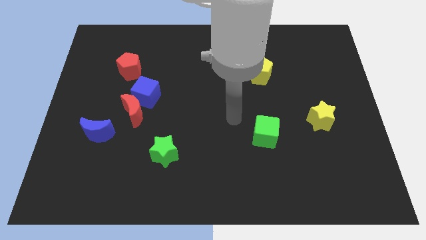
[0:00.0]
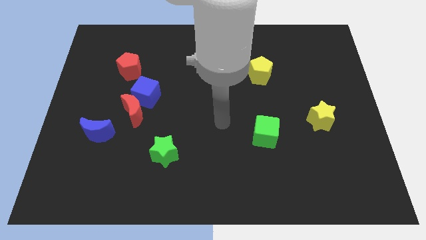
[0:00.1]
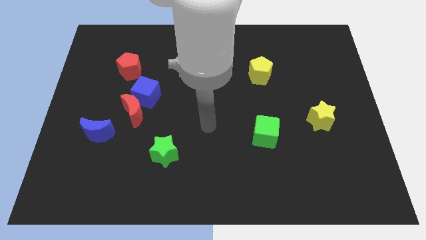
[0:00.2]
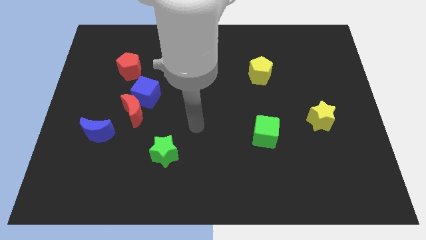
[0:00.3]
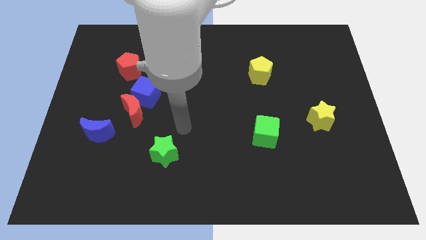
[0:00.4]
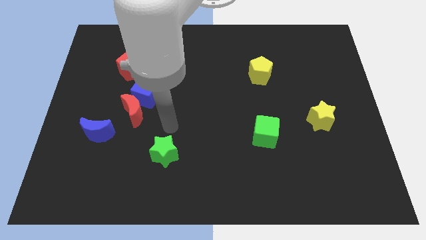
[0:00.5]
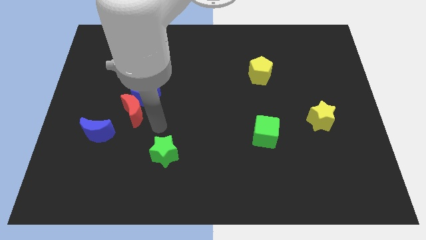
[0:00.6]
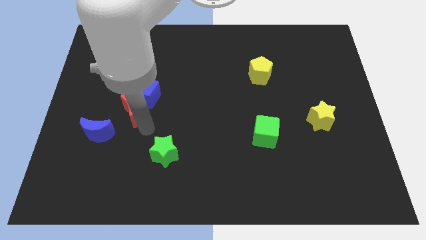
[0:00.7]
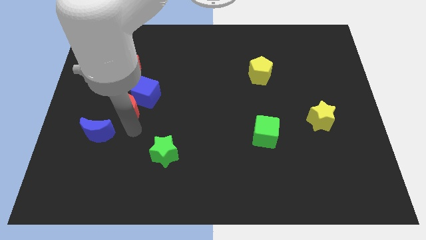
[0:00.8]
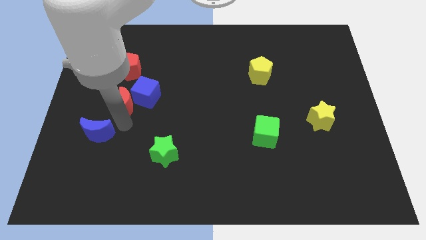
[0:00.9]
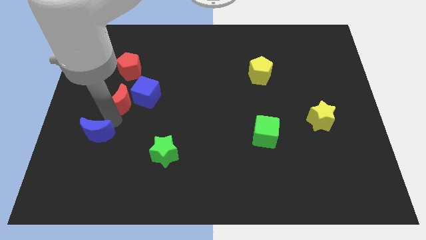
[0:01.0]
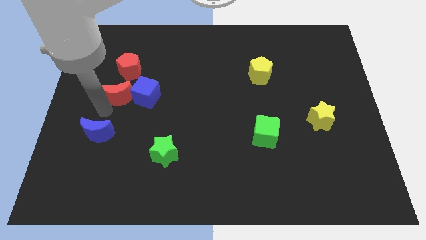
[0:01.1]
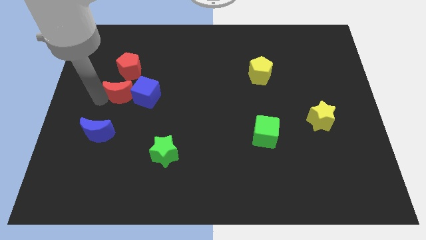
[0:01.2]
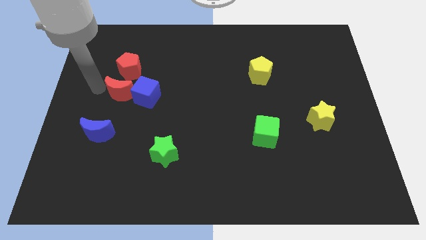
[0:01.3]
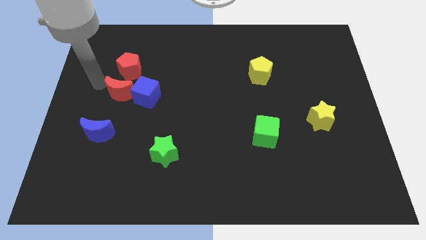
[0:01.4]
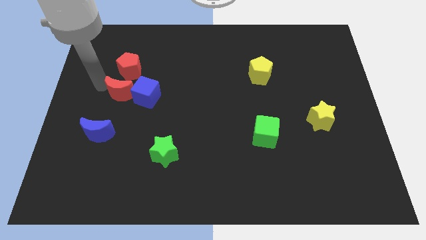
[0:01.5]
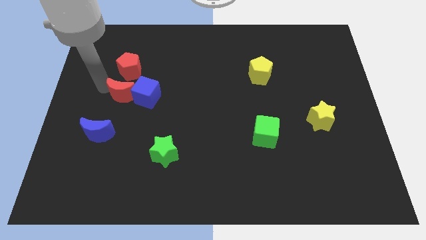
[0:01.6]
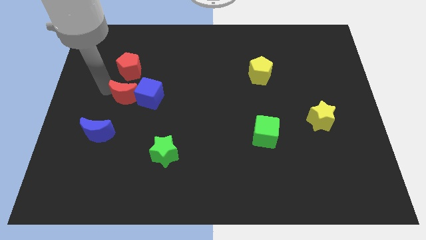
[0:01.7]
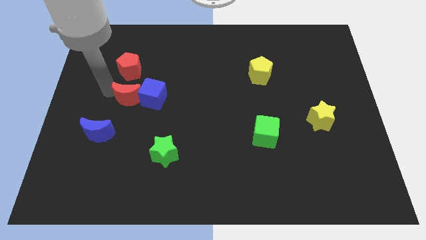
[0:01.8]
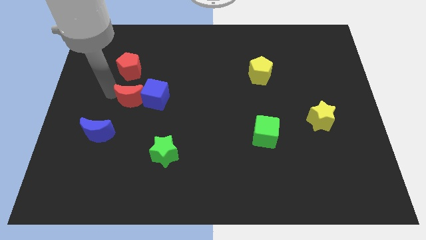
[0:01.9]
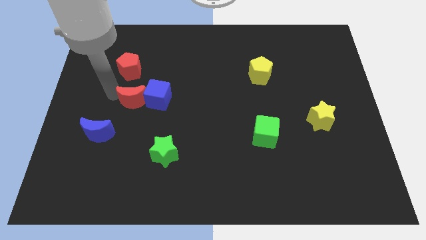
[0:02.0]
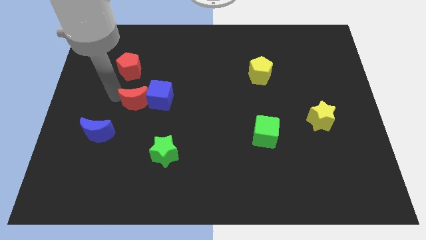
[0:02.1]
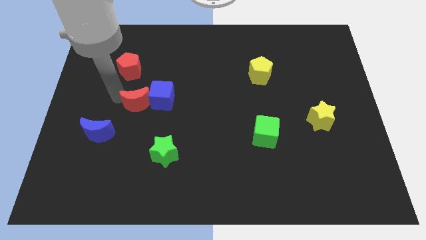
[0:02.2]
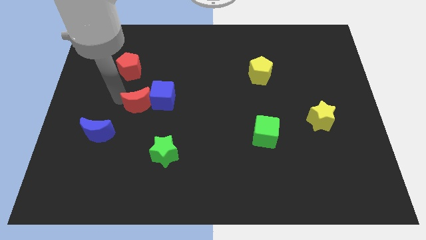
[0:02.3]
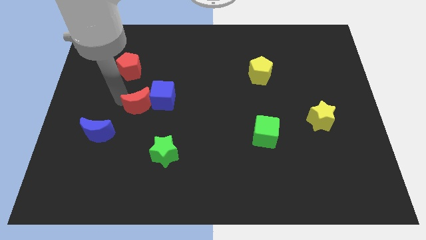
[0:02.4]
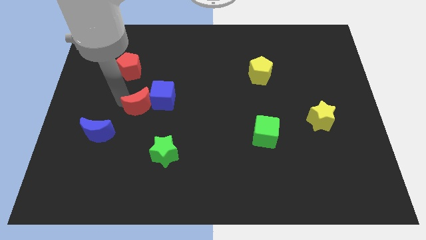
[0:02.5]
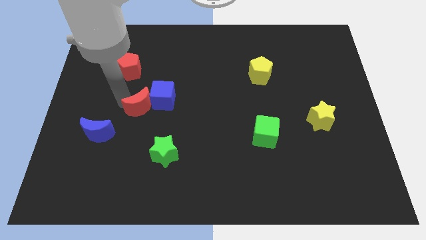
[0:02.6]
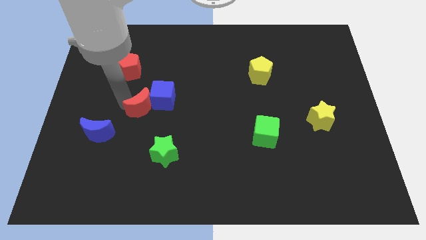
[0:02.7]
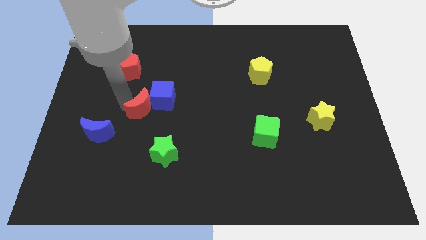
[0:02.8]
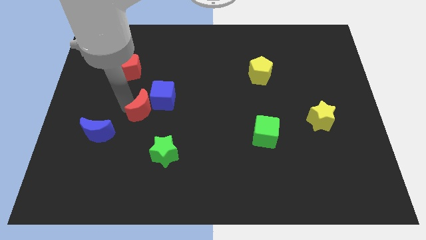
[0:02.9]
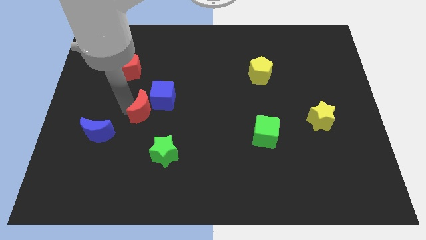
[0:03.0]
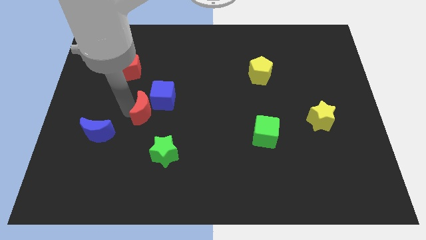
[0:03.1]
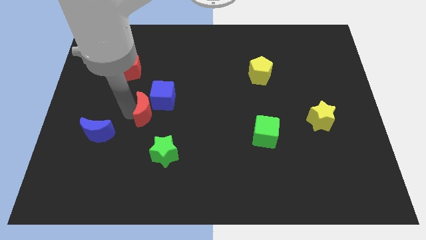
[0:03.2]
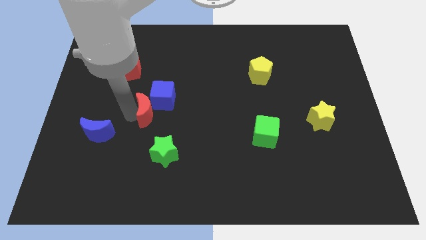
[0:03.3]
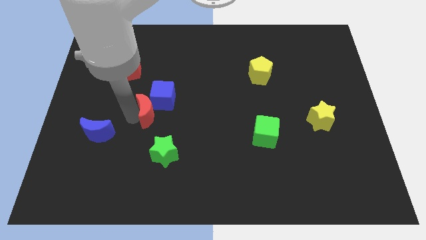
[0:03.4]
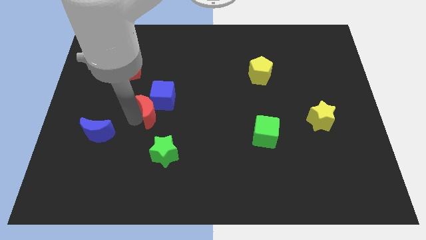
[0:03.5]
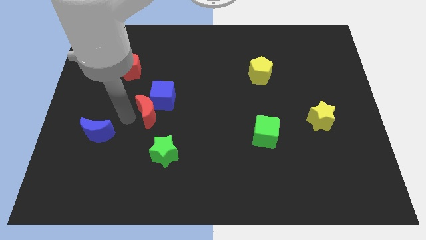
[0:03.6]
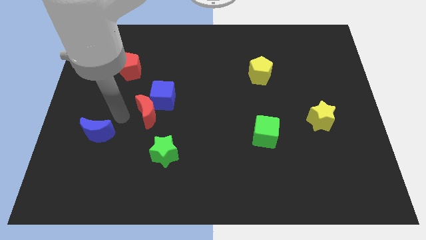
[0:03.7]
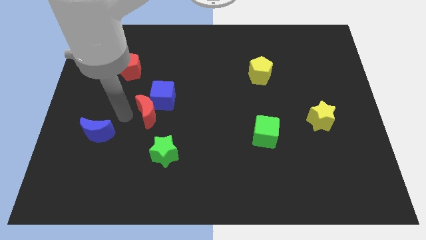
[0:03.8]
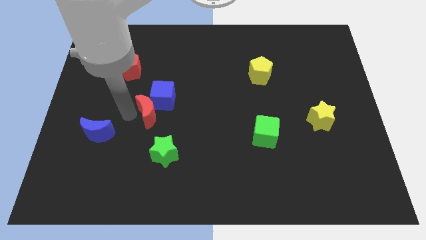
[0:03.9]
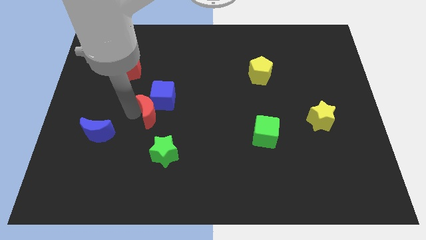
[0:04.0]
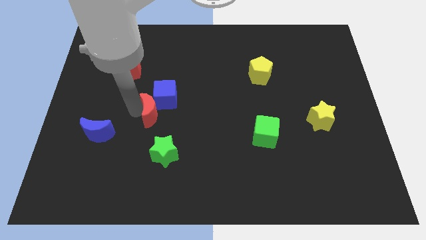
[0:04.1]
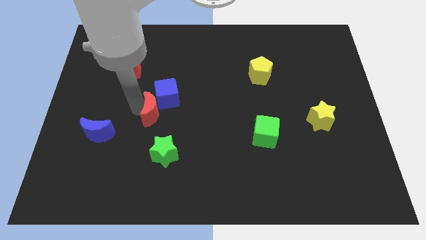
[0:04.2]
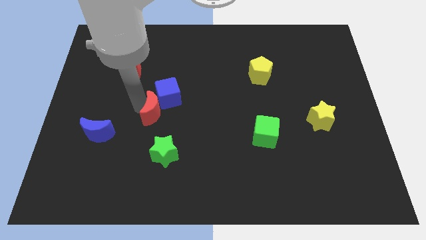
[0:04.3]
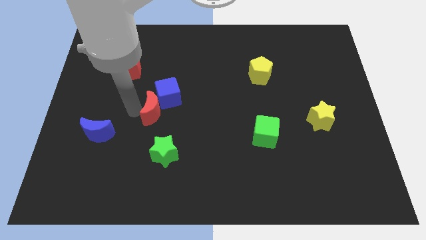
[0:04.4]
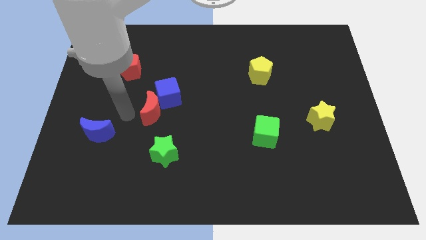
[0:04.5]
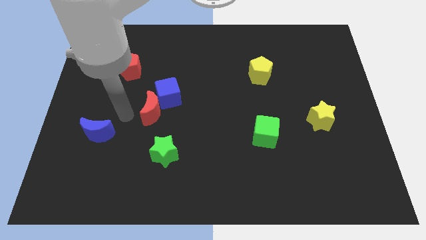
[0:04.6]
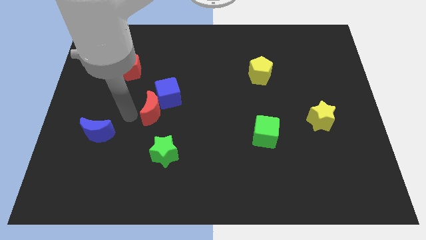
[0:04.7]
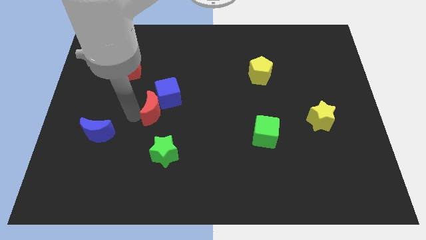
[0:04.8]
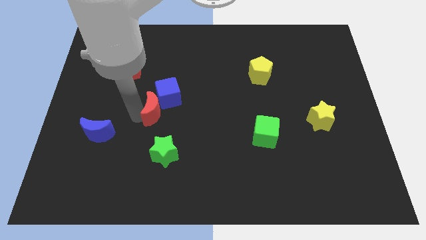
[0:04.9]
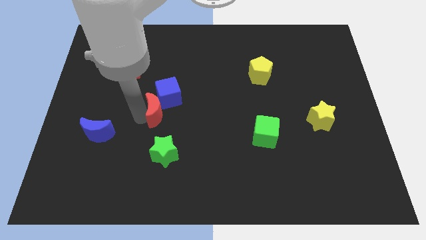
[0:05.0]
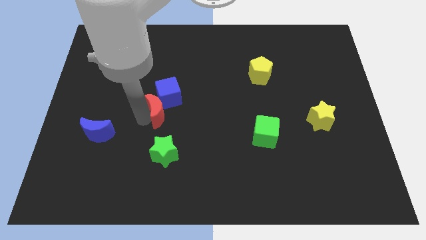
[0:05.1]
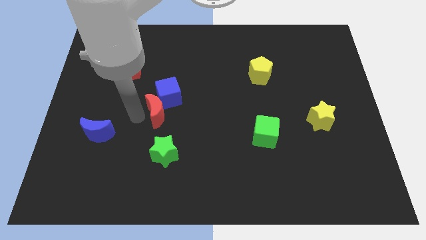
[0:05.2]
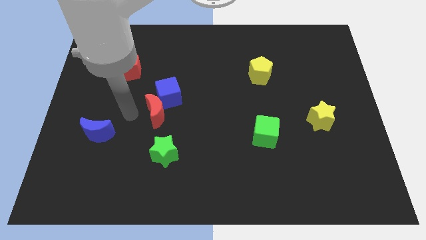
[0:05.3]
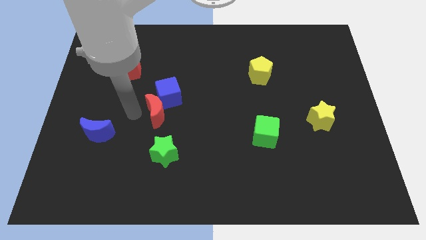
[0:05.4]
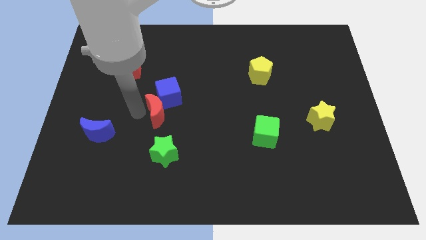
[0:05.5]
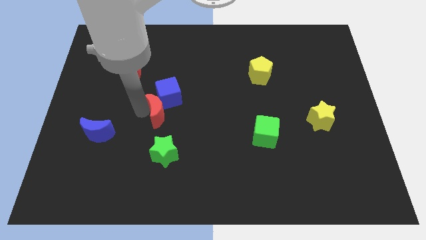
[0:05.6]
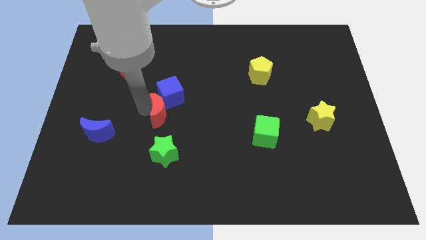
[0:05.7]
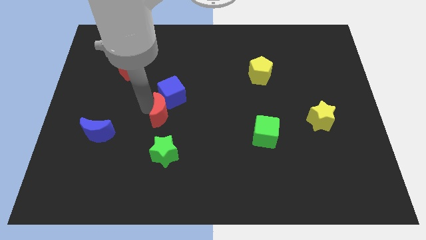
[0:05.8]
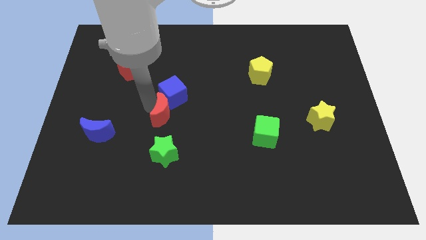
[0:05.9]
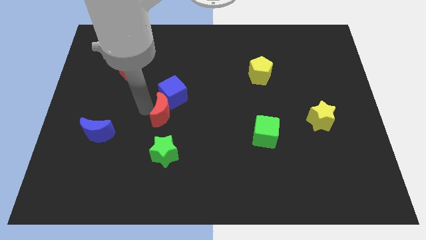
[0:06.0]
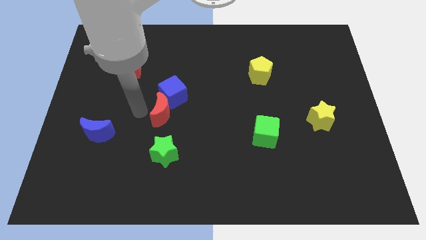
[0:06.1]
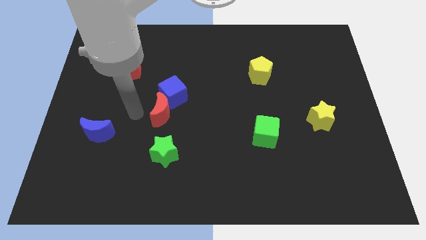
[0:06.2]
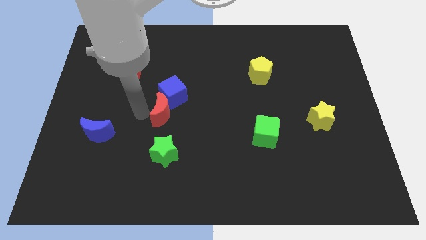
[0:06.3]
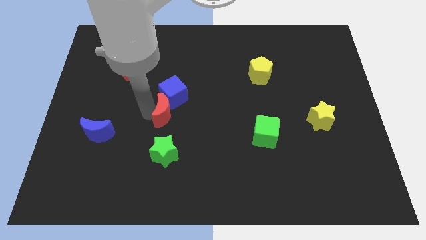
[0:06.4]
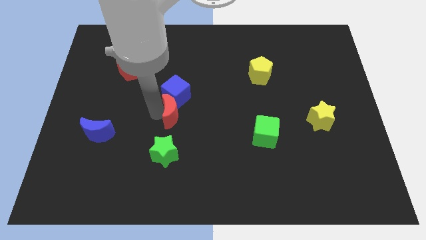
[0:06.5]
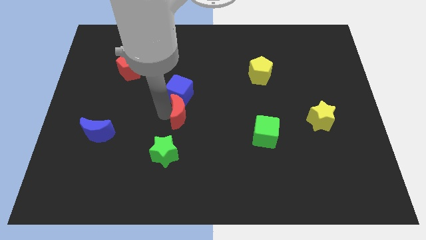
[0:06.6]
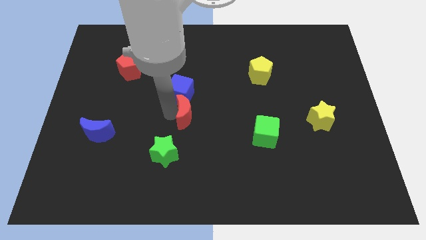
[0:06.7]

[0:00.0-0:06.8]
separate the red moon from the blue cube and blue moon

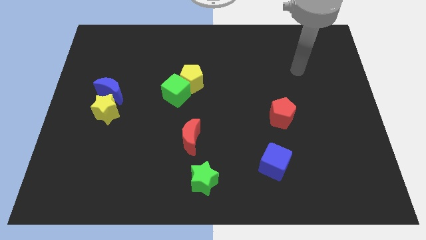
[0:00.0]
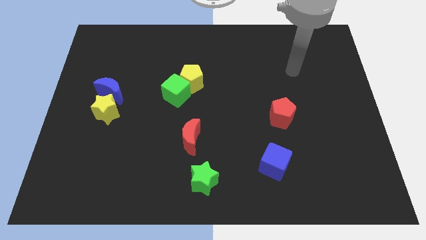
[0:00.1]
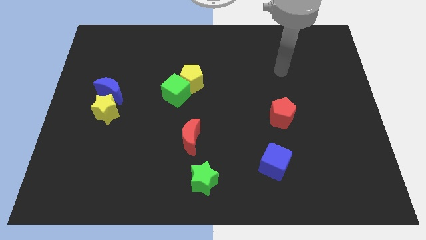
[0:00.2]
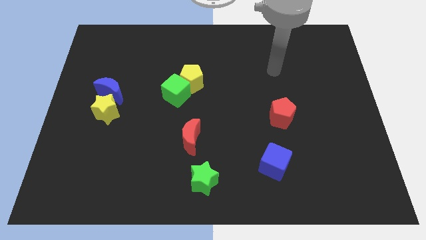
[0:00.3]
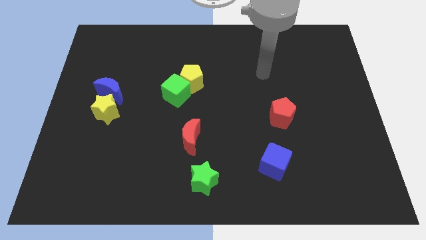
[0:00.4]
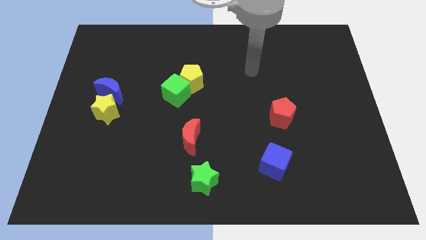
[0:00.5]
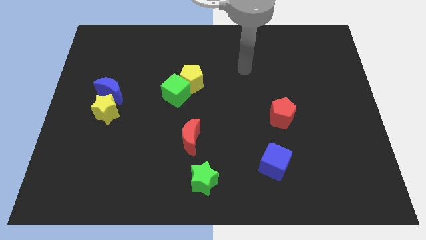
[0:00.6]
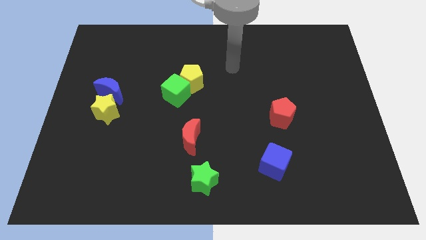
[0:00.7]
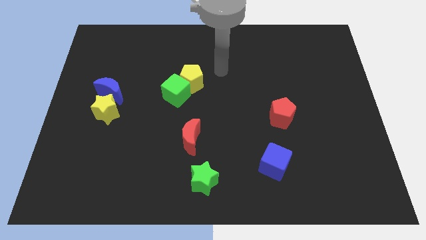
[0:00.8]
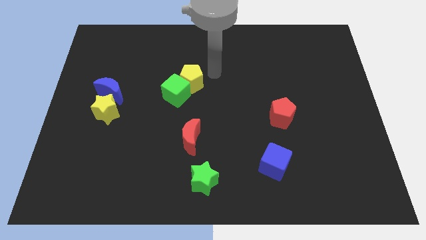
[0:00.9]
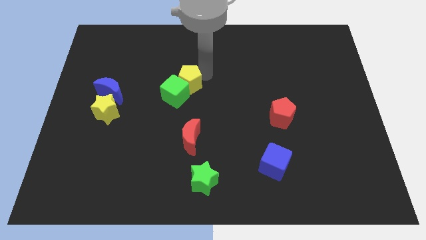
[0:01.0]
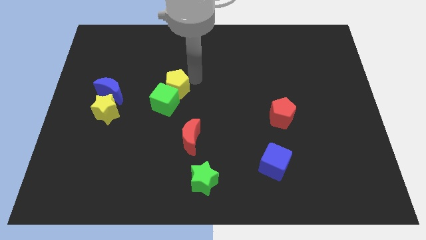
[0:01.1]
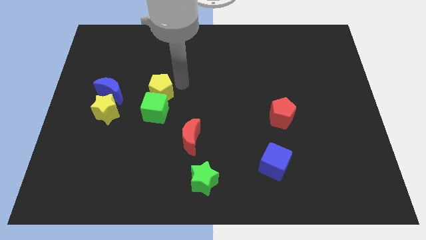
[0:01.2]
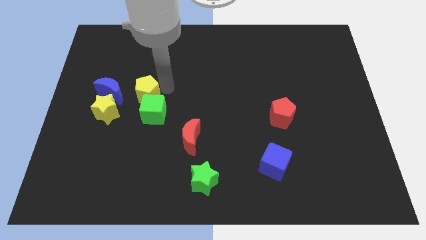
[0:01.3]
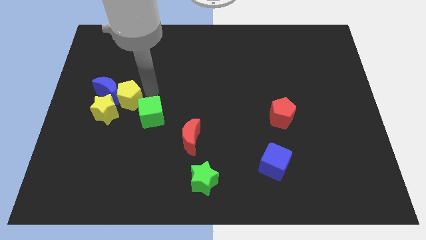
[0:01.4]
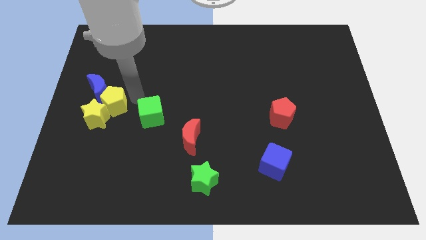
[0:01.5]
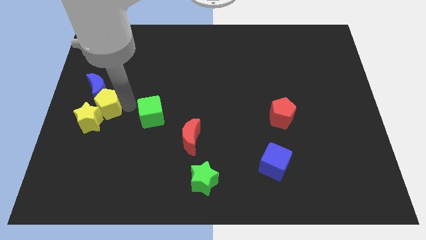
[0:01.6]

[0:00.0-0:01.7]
pull the green cube apart from the yellow pentagon

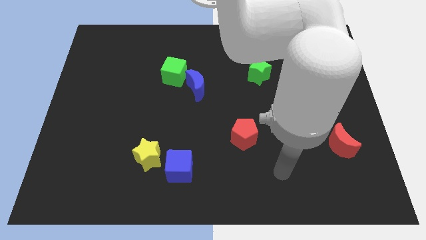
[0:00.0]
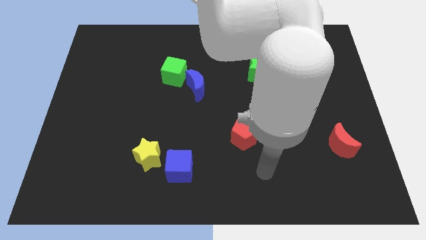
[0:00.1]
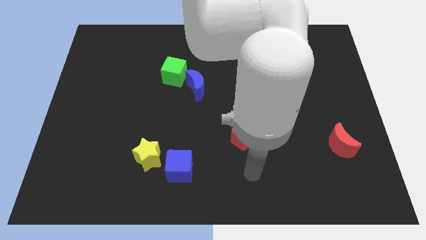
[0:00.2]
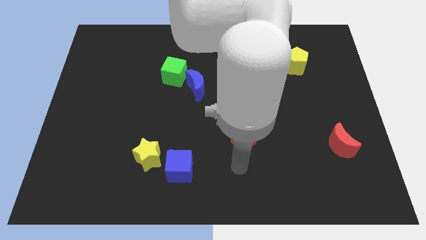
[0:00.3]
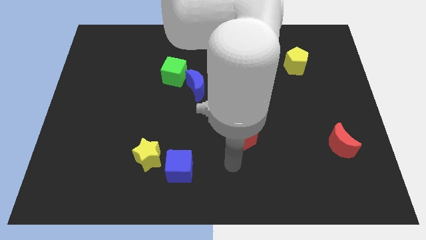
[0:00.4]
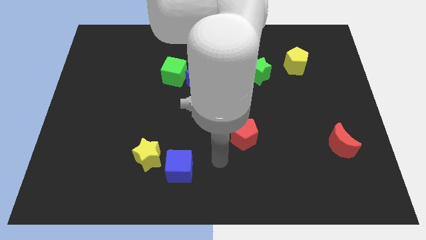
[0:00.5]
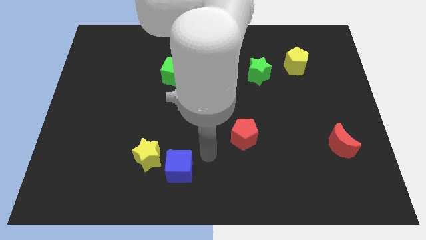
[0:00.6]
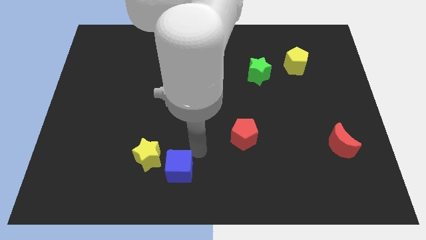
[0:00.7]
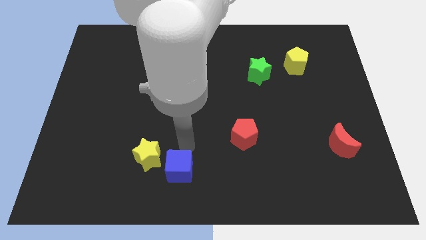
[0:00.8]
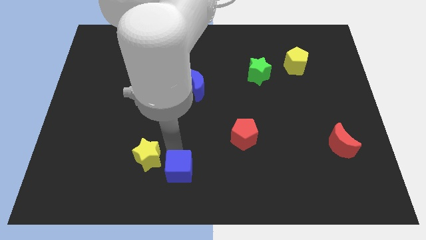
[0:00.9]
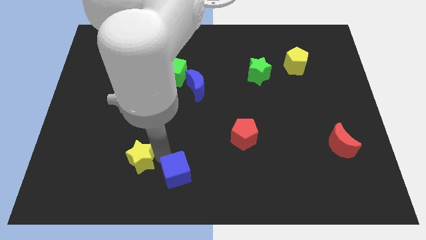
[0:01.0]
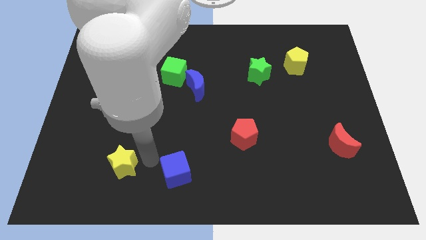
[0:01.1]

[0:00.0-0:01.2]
move the blue cube away from the yellow star
